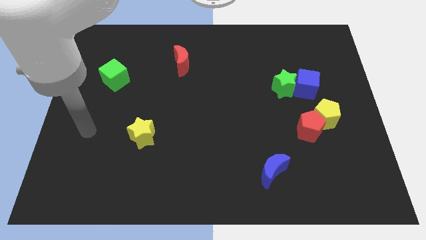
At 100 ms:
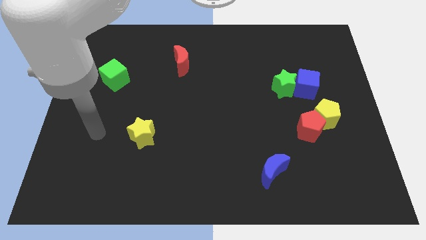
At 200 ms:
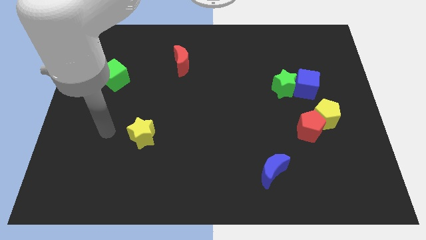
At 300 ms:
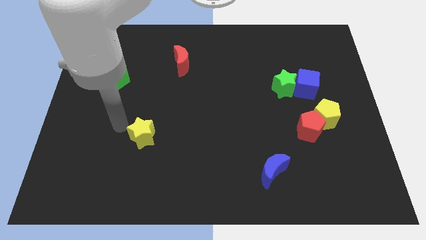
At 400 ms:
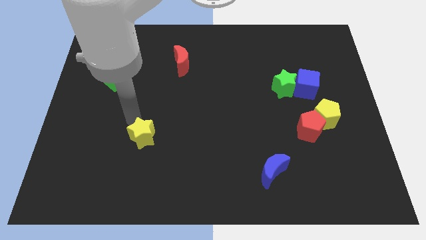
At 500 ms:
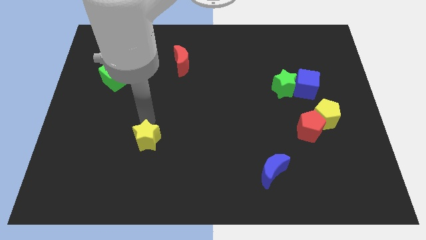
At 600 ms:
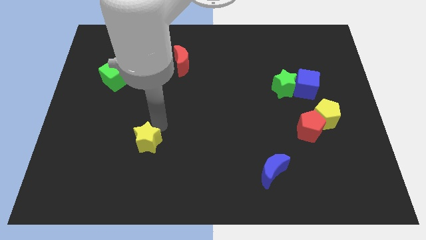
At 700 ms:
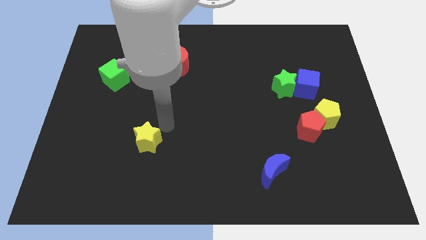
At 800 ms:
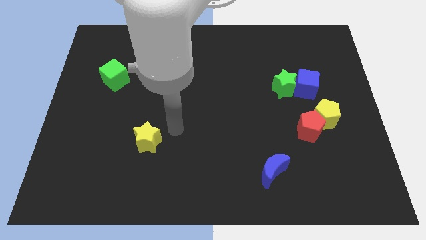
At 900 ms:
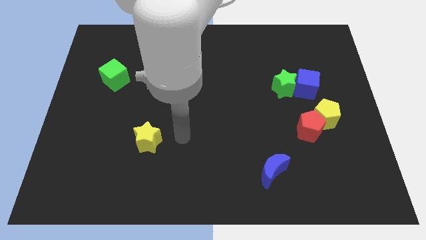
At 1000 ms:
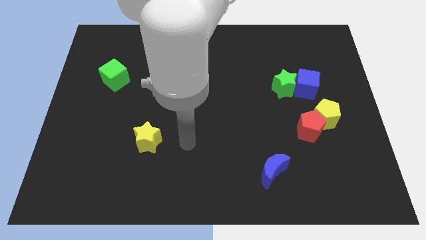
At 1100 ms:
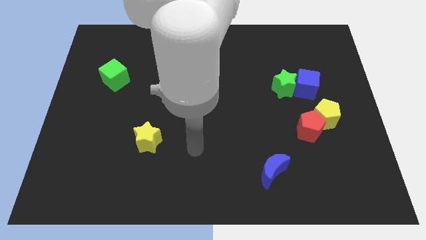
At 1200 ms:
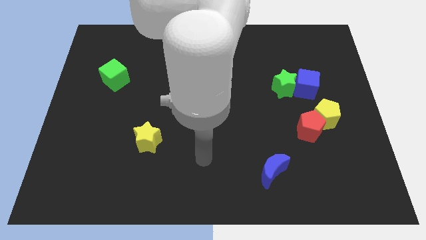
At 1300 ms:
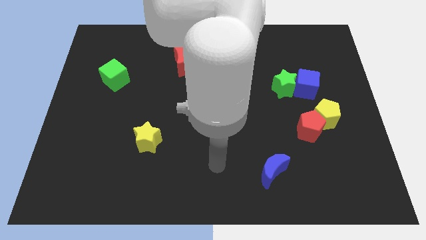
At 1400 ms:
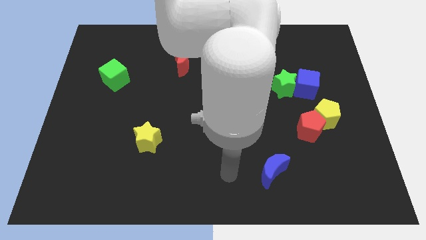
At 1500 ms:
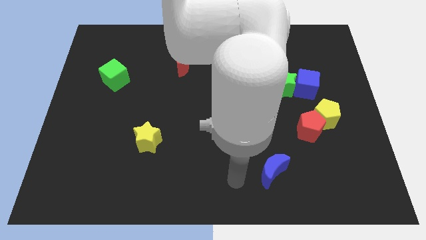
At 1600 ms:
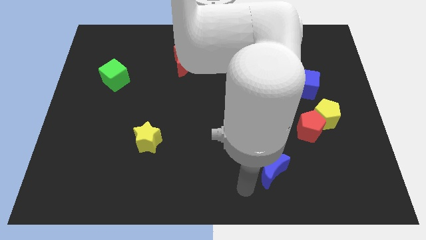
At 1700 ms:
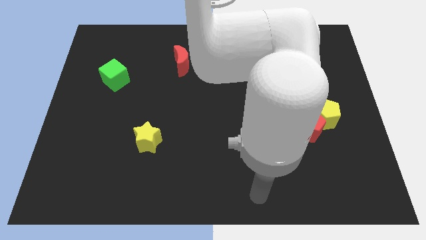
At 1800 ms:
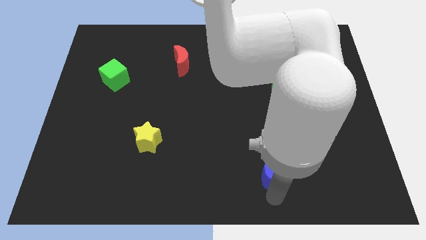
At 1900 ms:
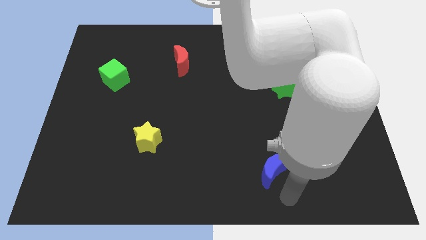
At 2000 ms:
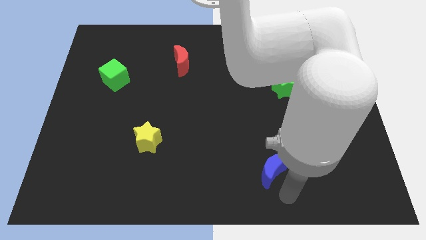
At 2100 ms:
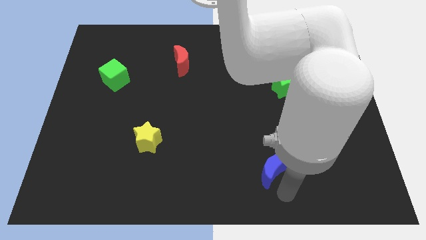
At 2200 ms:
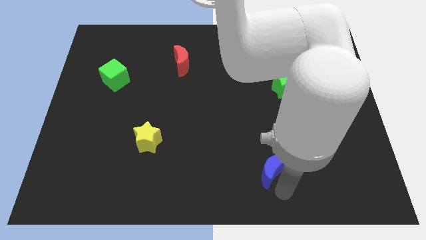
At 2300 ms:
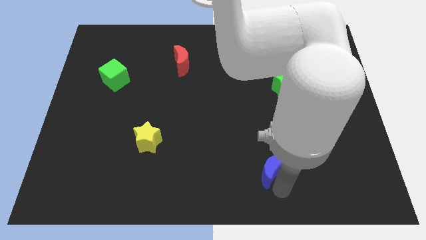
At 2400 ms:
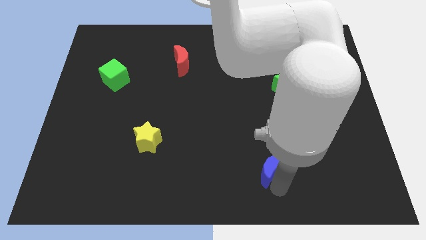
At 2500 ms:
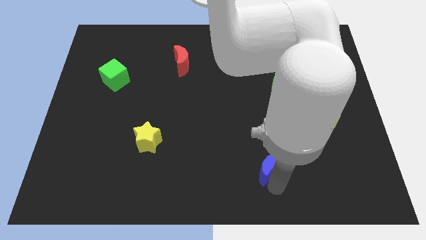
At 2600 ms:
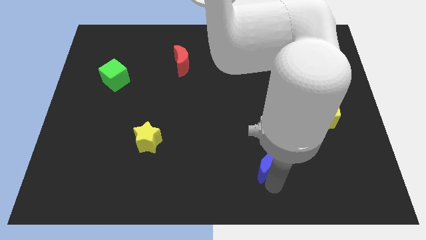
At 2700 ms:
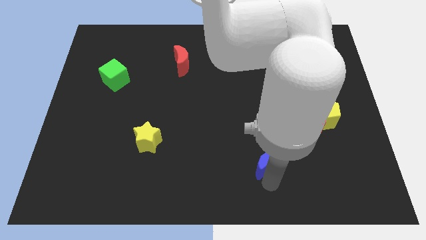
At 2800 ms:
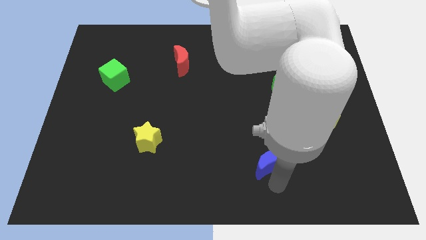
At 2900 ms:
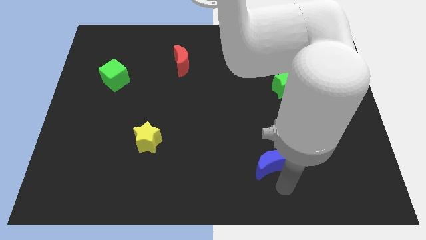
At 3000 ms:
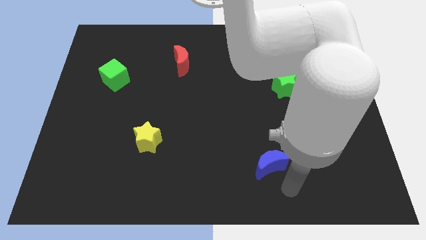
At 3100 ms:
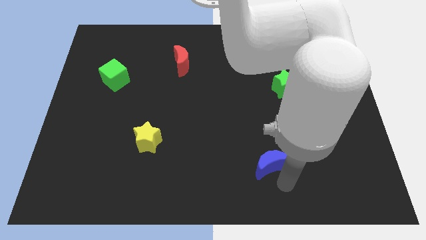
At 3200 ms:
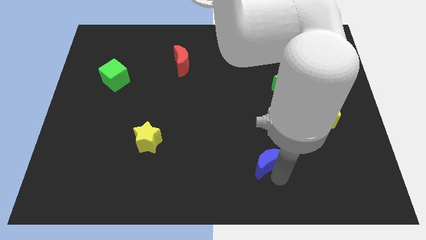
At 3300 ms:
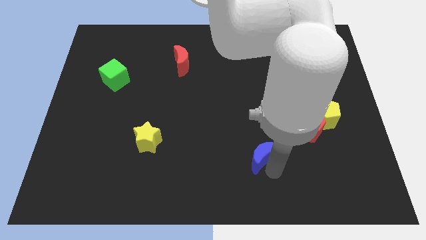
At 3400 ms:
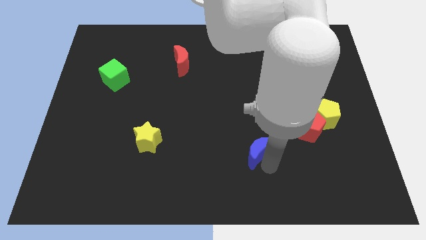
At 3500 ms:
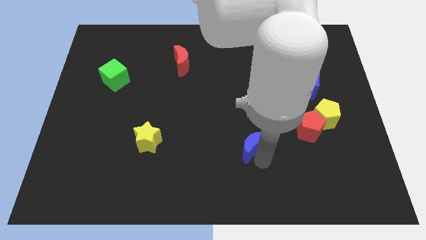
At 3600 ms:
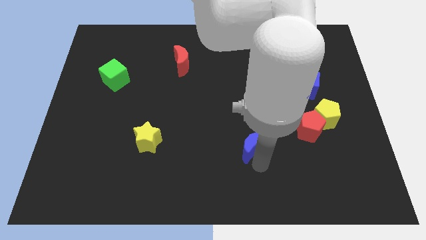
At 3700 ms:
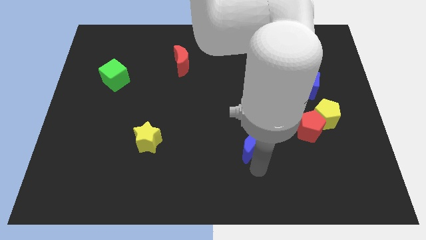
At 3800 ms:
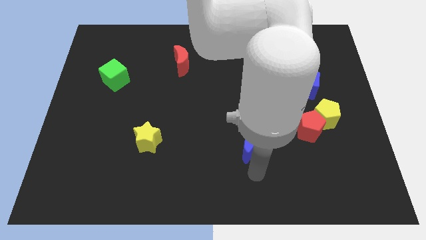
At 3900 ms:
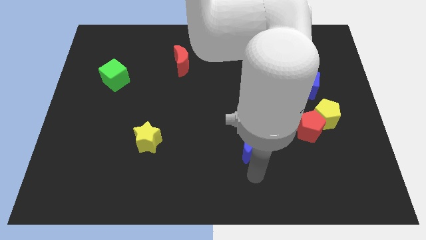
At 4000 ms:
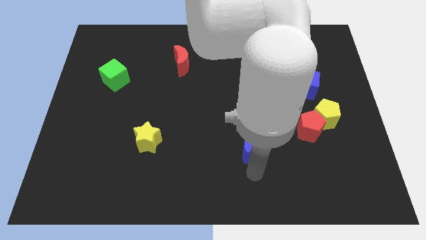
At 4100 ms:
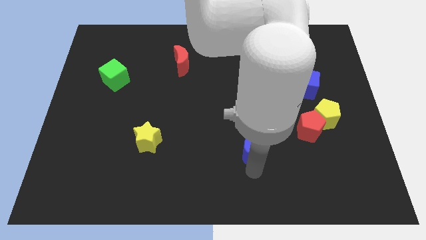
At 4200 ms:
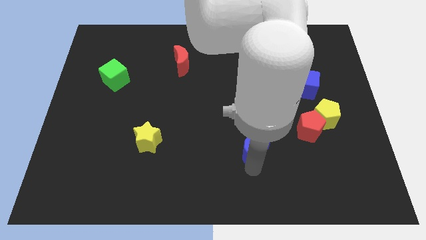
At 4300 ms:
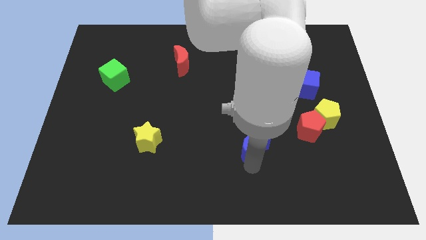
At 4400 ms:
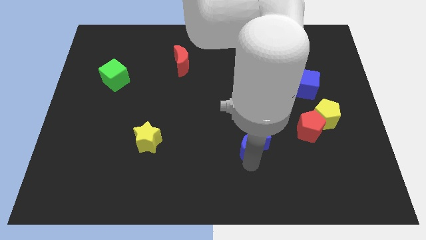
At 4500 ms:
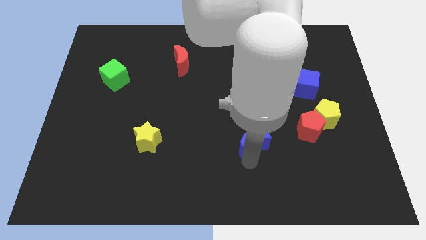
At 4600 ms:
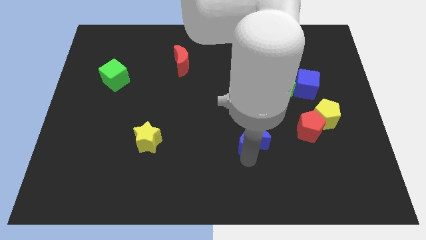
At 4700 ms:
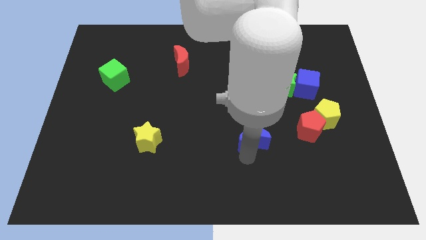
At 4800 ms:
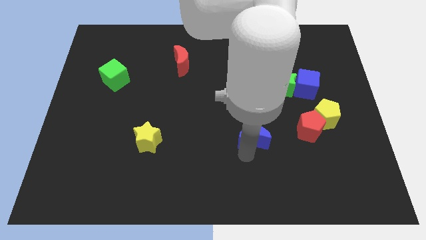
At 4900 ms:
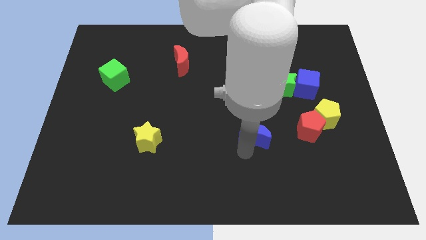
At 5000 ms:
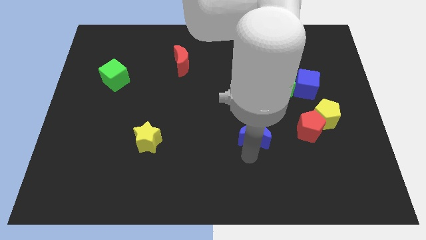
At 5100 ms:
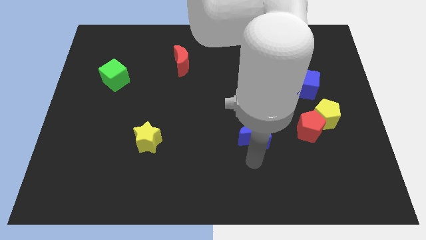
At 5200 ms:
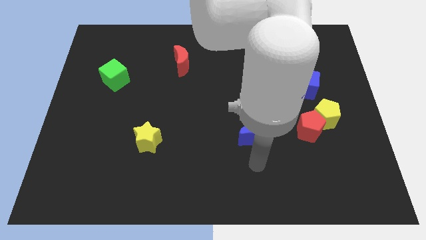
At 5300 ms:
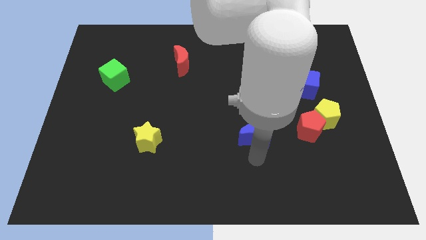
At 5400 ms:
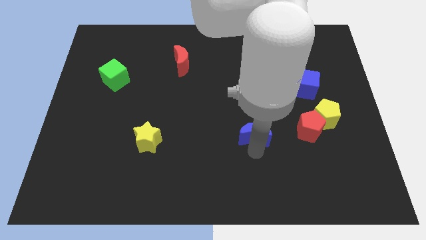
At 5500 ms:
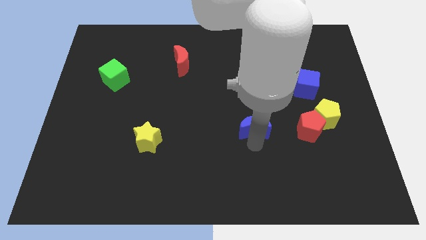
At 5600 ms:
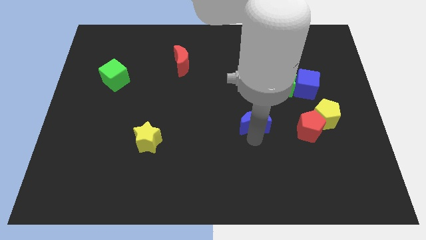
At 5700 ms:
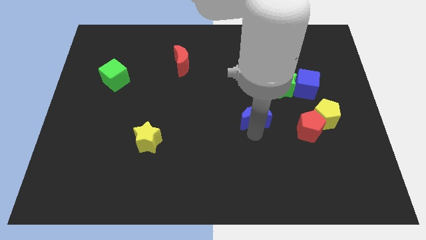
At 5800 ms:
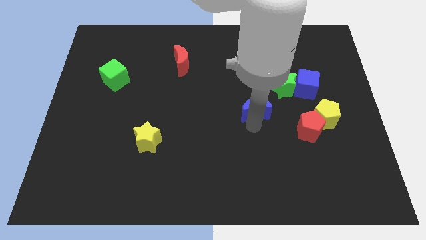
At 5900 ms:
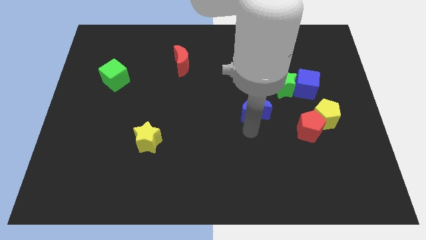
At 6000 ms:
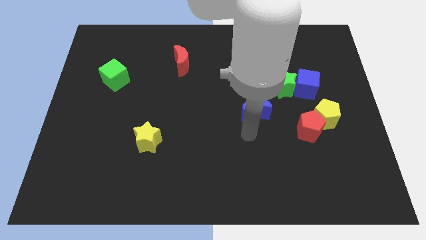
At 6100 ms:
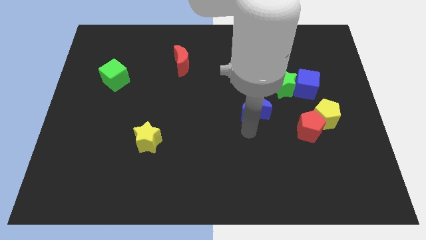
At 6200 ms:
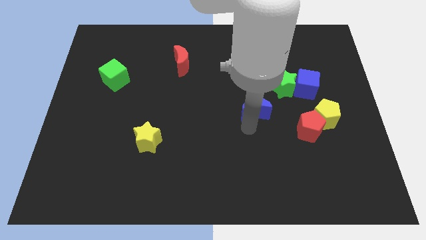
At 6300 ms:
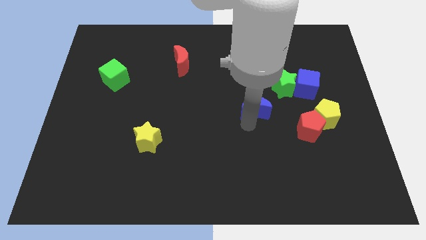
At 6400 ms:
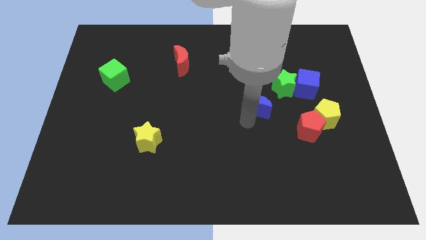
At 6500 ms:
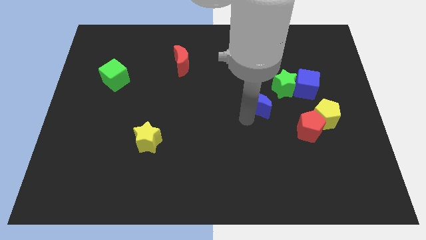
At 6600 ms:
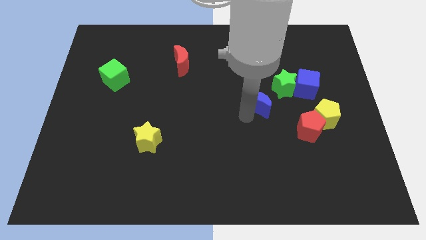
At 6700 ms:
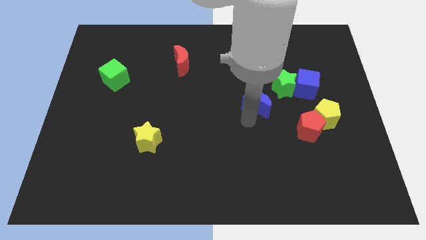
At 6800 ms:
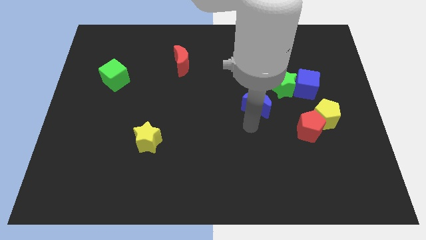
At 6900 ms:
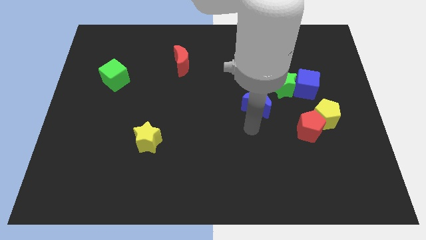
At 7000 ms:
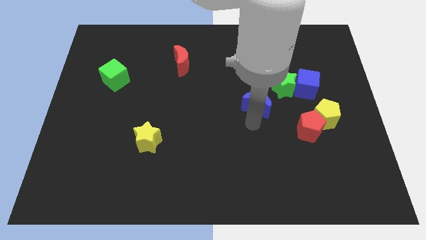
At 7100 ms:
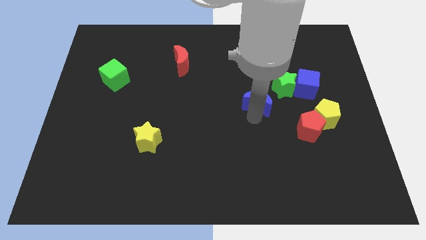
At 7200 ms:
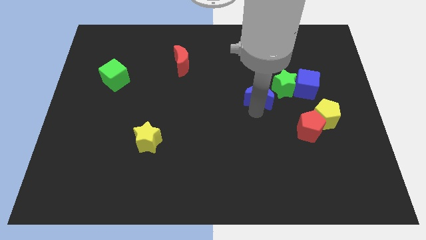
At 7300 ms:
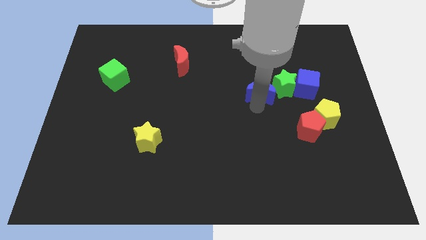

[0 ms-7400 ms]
push the blue moon upwards

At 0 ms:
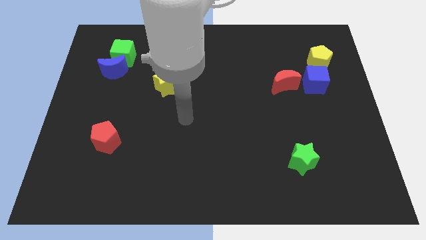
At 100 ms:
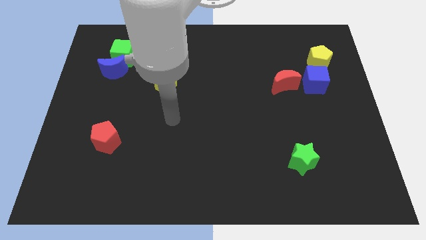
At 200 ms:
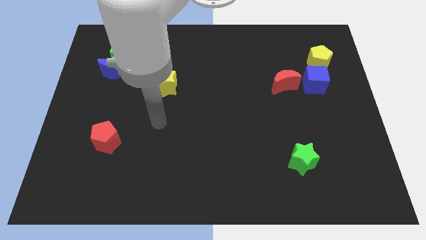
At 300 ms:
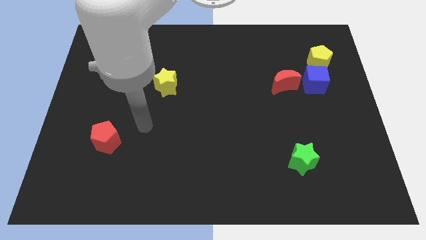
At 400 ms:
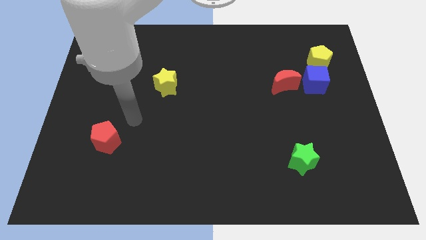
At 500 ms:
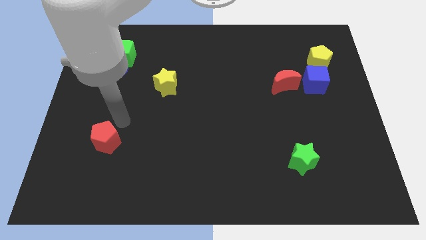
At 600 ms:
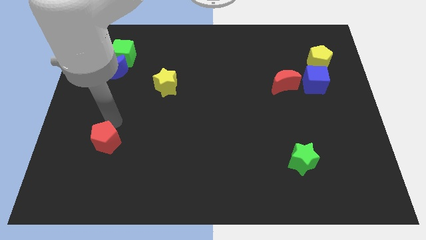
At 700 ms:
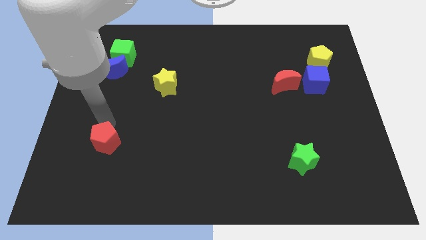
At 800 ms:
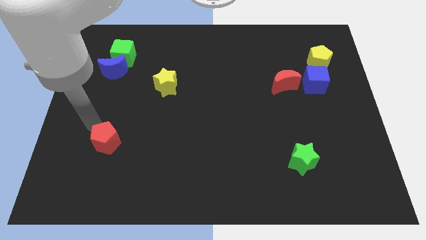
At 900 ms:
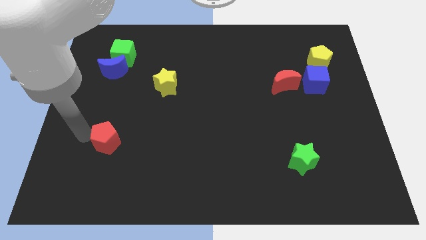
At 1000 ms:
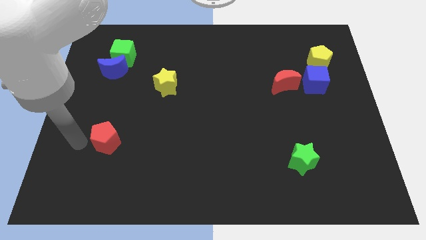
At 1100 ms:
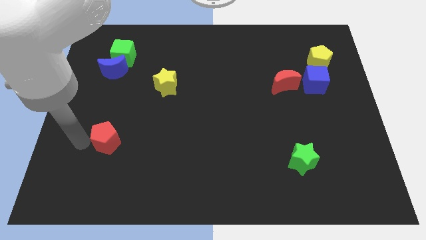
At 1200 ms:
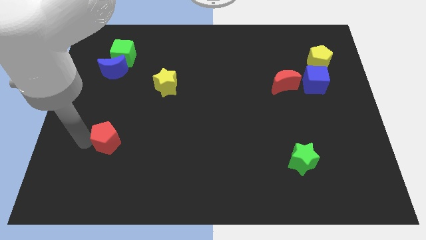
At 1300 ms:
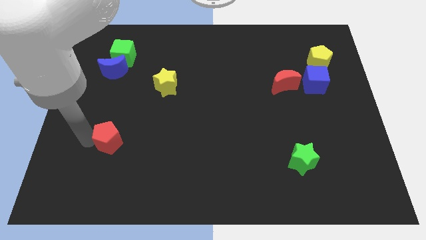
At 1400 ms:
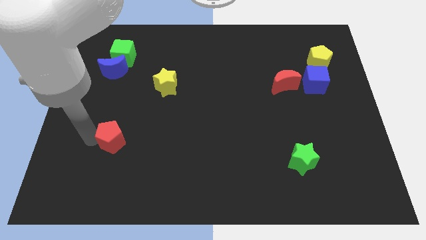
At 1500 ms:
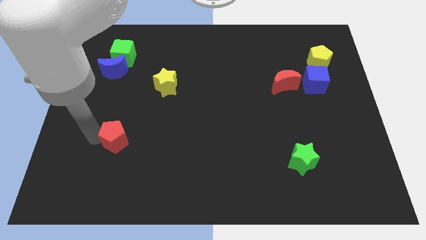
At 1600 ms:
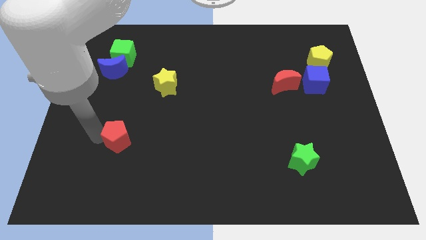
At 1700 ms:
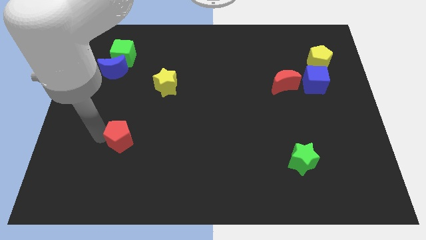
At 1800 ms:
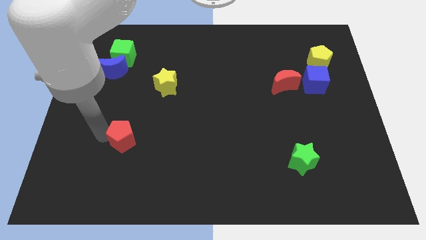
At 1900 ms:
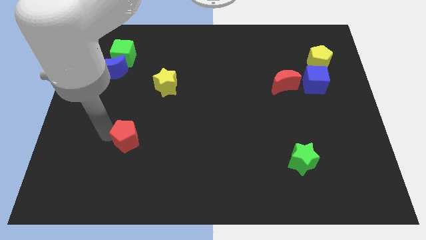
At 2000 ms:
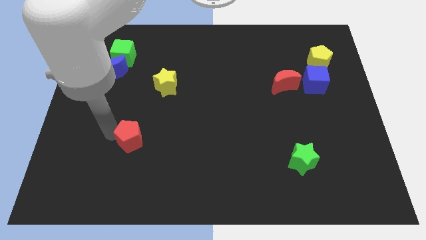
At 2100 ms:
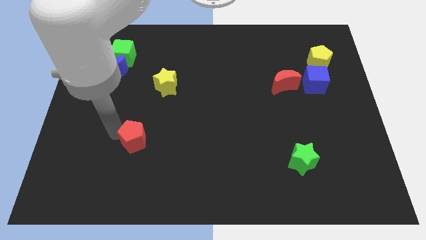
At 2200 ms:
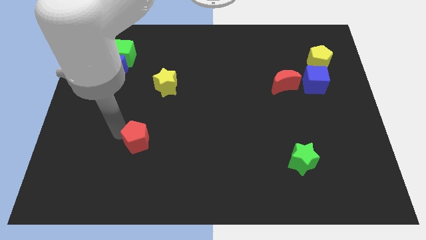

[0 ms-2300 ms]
slightly push the red pentagon right
